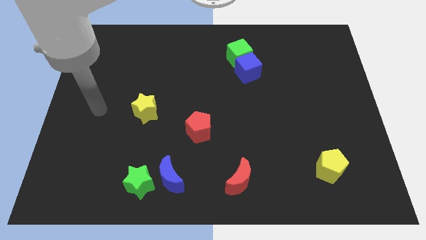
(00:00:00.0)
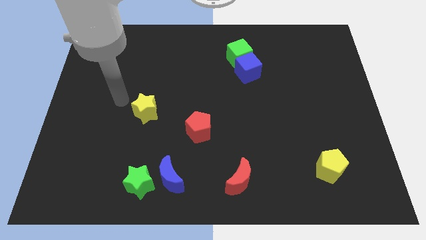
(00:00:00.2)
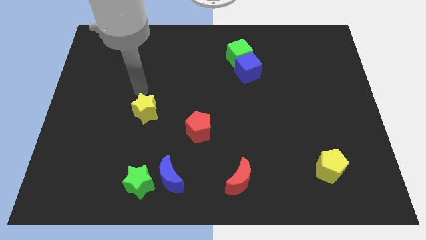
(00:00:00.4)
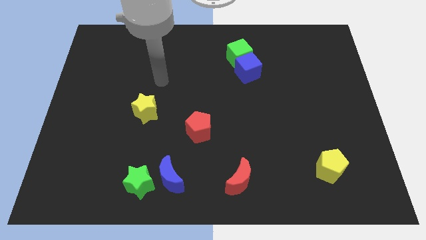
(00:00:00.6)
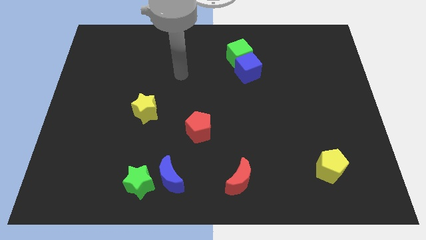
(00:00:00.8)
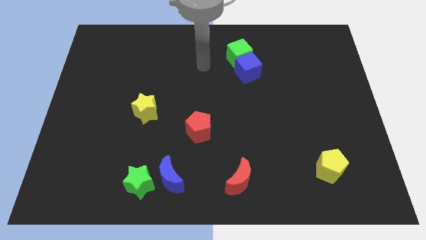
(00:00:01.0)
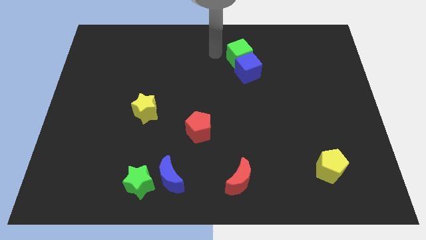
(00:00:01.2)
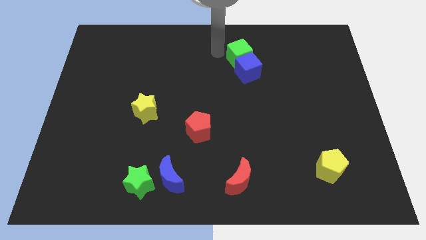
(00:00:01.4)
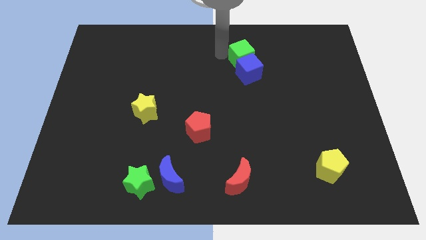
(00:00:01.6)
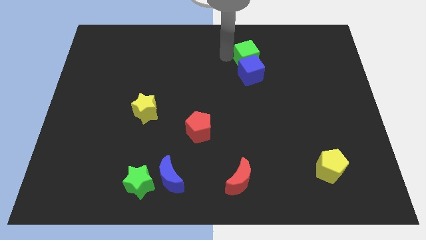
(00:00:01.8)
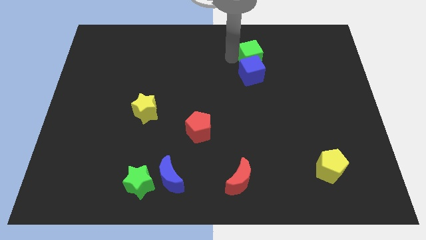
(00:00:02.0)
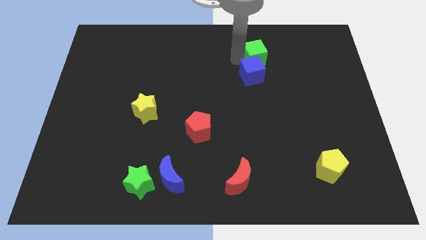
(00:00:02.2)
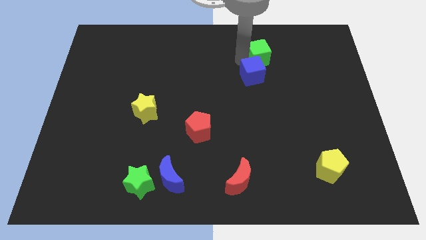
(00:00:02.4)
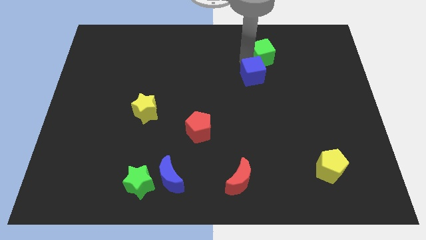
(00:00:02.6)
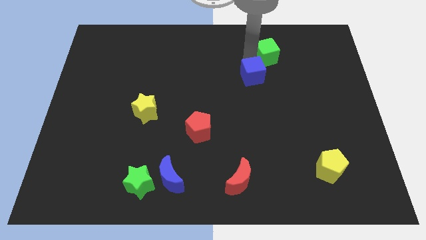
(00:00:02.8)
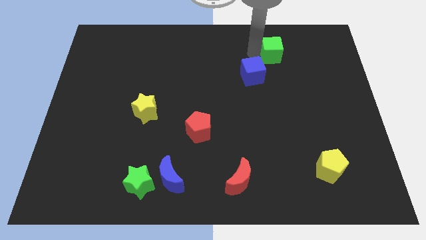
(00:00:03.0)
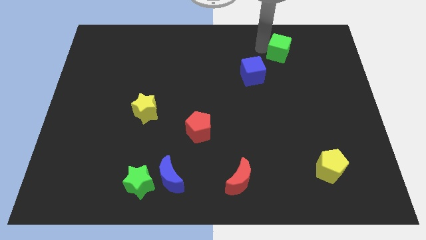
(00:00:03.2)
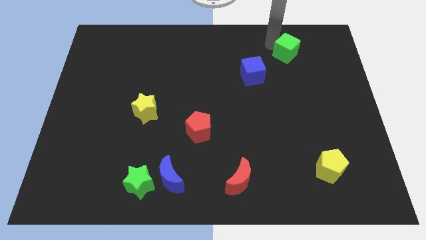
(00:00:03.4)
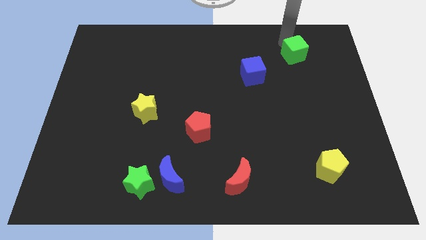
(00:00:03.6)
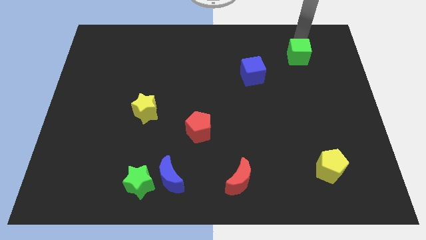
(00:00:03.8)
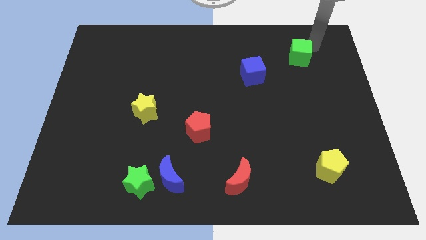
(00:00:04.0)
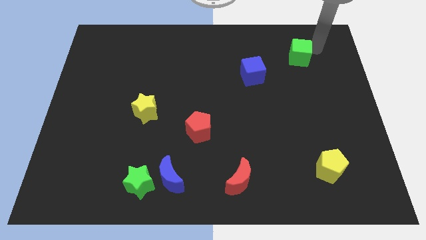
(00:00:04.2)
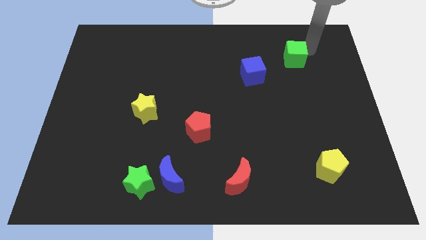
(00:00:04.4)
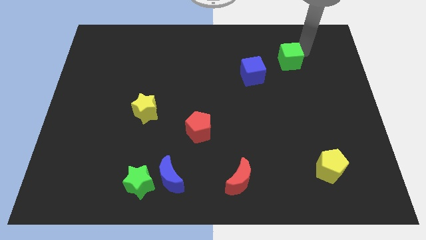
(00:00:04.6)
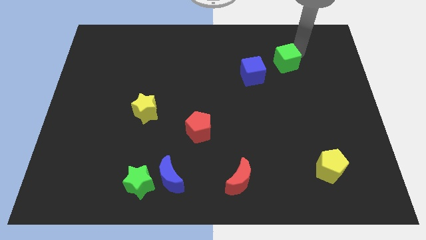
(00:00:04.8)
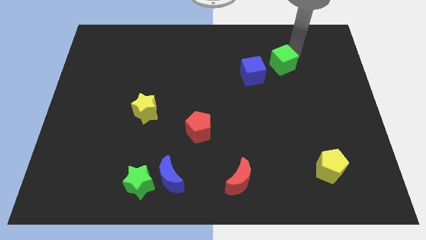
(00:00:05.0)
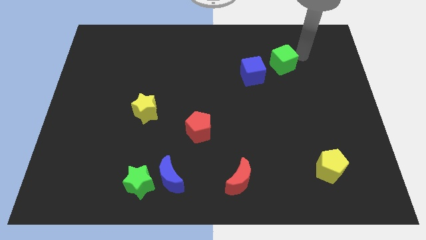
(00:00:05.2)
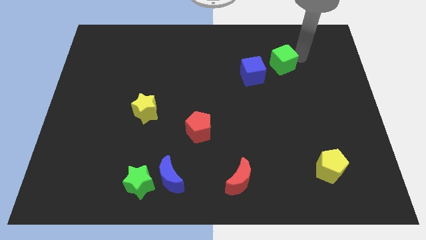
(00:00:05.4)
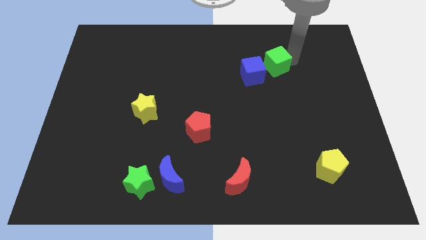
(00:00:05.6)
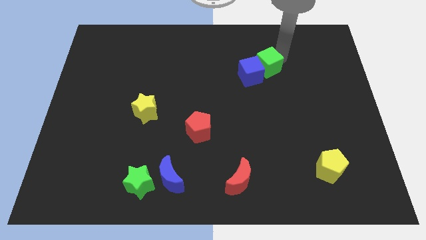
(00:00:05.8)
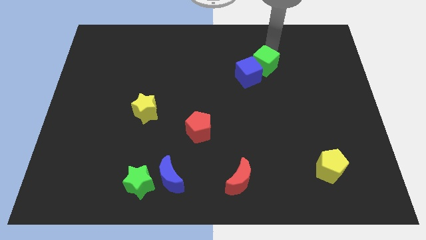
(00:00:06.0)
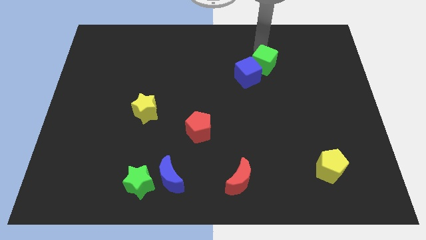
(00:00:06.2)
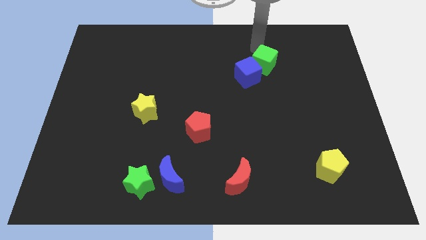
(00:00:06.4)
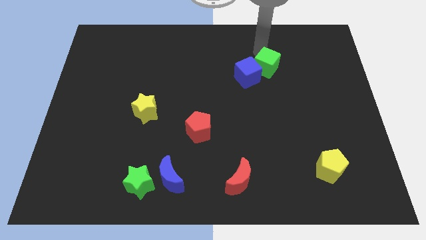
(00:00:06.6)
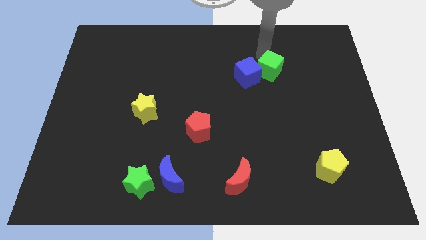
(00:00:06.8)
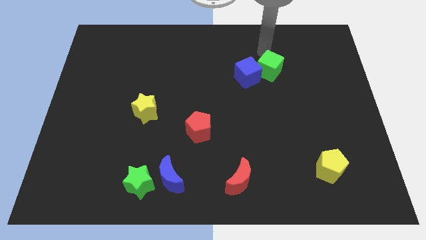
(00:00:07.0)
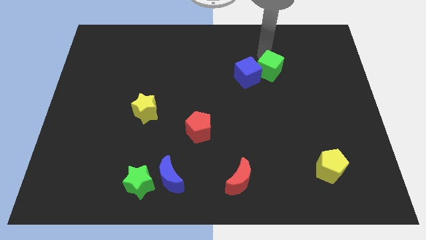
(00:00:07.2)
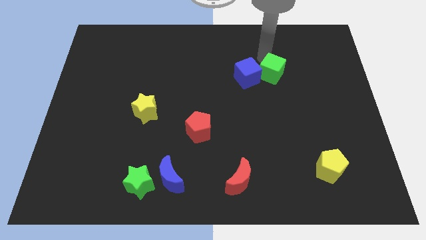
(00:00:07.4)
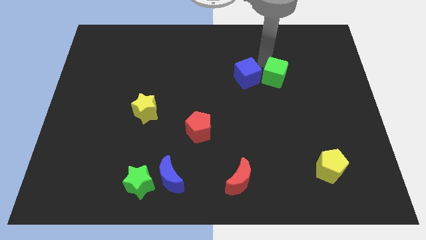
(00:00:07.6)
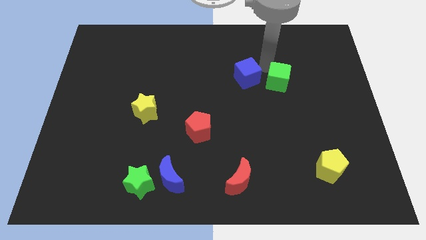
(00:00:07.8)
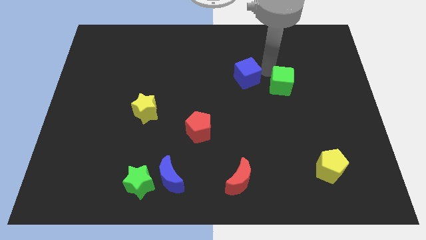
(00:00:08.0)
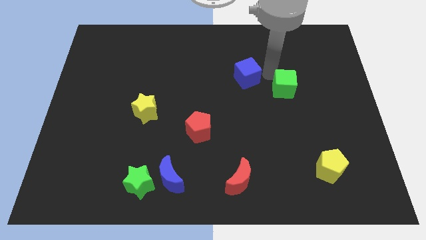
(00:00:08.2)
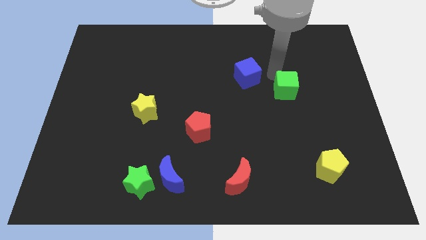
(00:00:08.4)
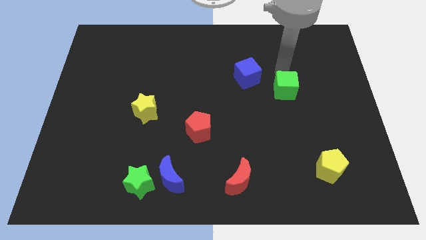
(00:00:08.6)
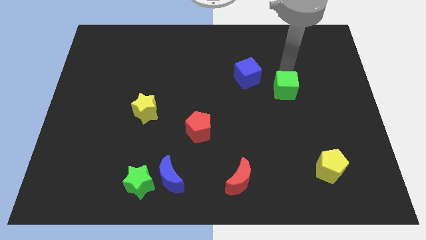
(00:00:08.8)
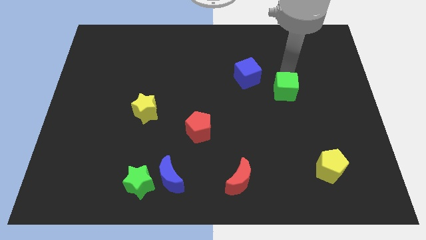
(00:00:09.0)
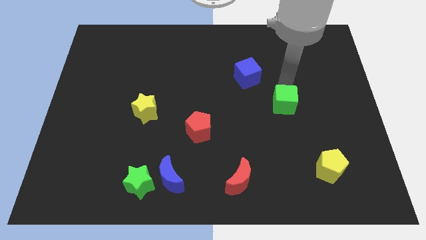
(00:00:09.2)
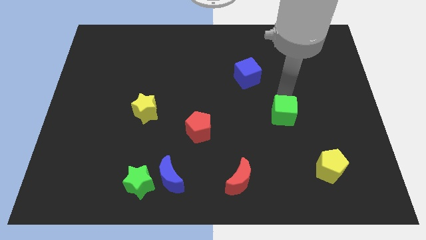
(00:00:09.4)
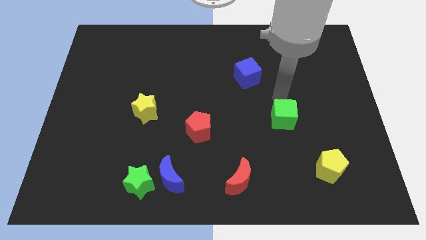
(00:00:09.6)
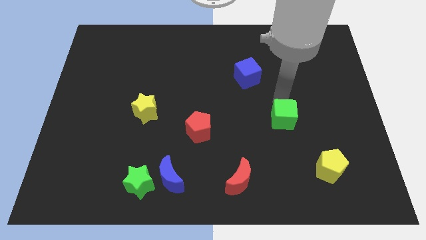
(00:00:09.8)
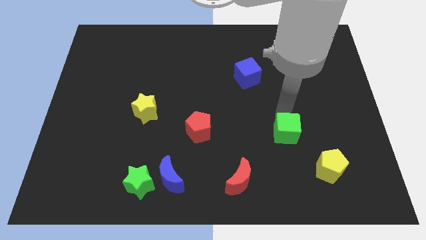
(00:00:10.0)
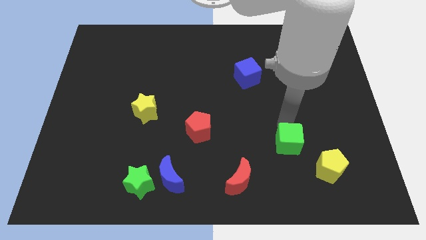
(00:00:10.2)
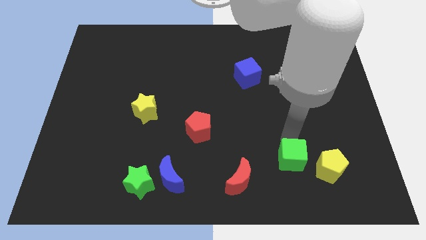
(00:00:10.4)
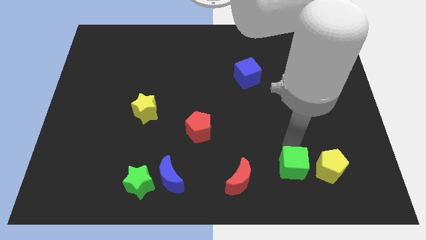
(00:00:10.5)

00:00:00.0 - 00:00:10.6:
move the green cube to the right of the red moon

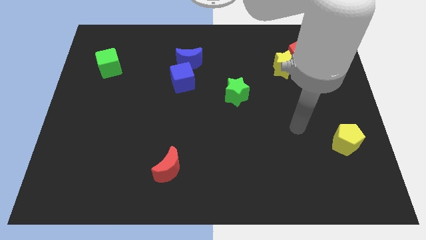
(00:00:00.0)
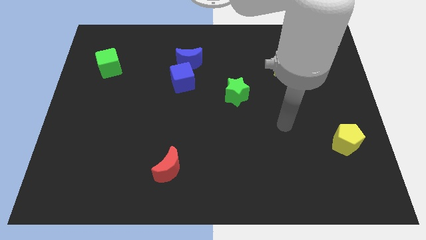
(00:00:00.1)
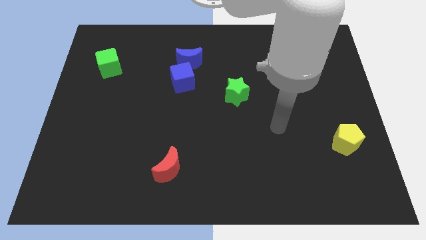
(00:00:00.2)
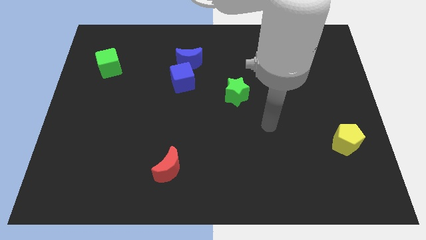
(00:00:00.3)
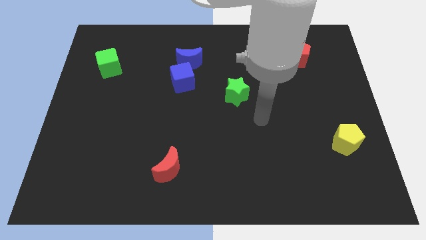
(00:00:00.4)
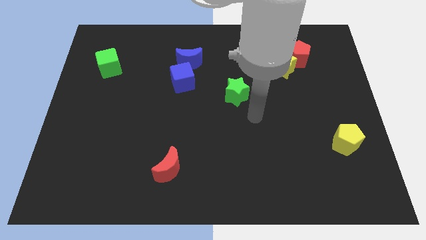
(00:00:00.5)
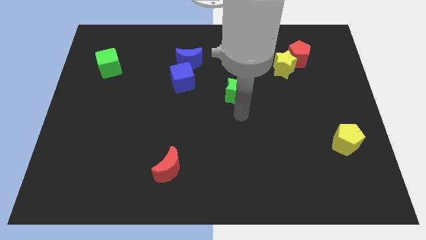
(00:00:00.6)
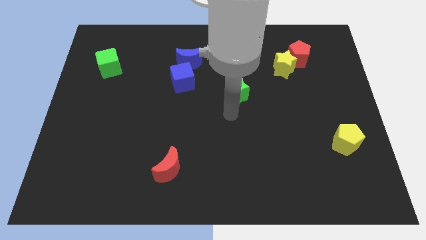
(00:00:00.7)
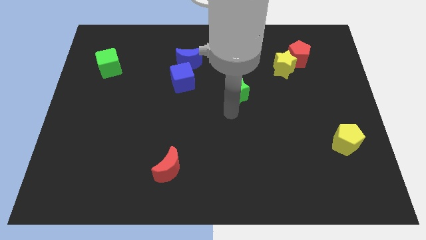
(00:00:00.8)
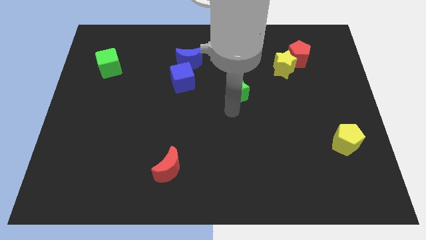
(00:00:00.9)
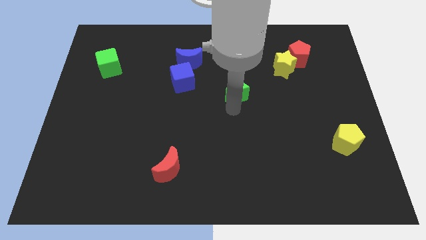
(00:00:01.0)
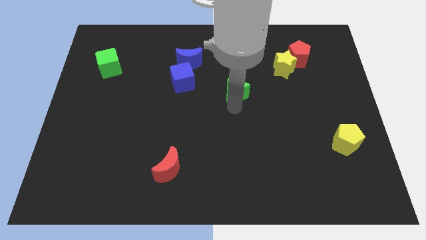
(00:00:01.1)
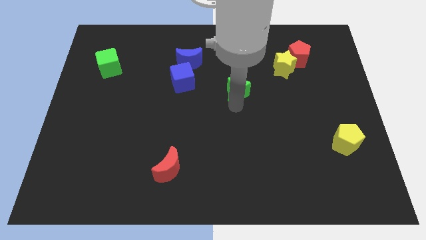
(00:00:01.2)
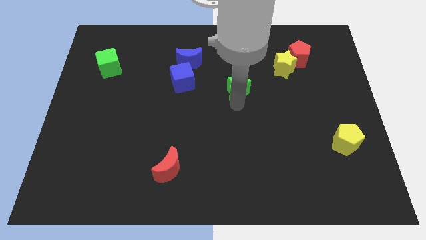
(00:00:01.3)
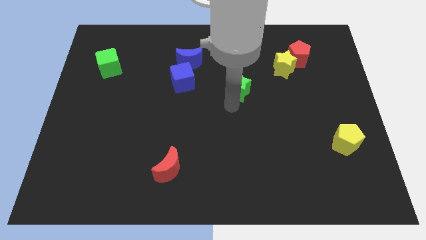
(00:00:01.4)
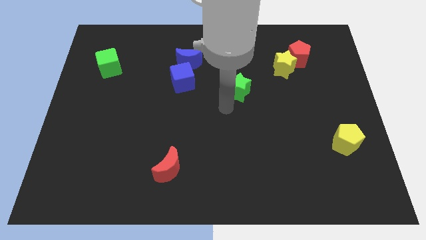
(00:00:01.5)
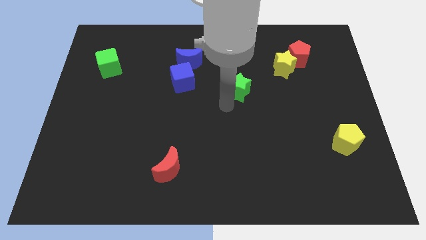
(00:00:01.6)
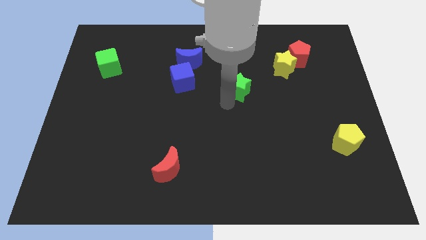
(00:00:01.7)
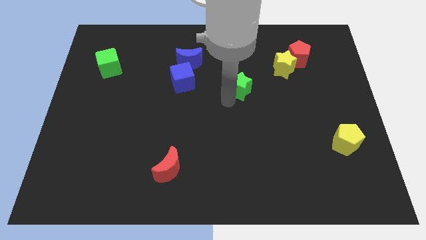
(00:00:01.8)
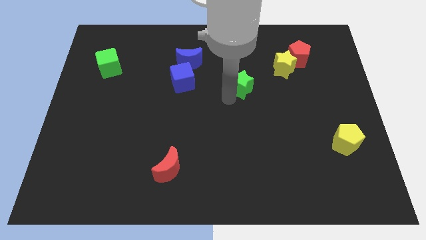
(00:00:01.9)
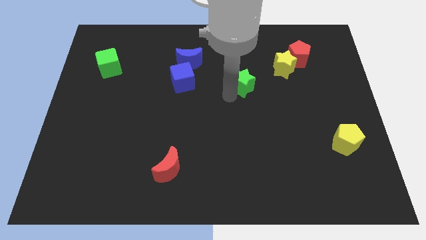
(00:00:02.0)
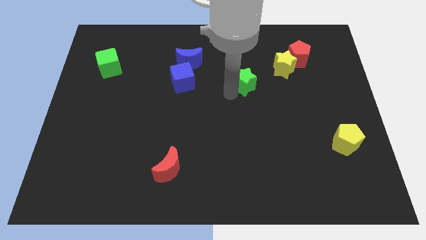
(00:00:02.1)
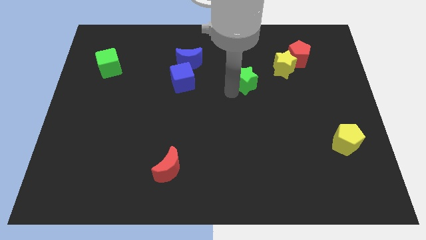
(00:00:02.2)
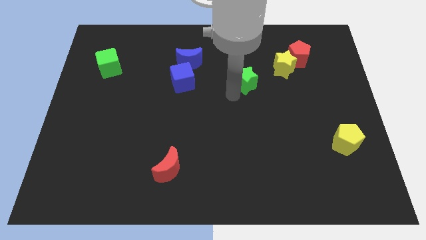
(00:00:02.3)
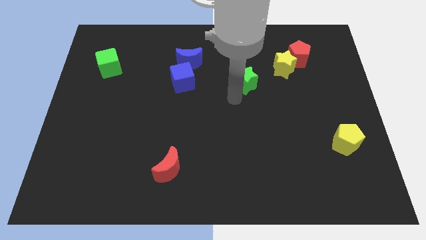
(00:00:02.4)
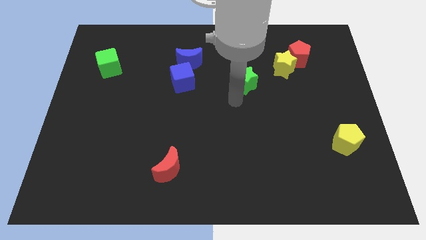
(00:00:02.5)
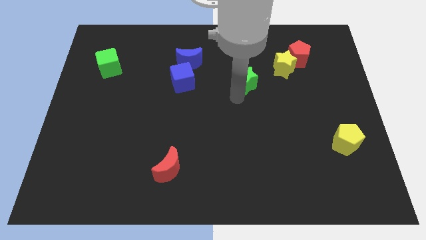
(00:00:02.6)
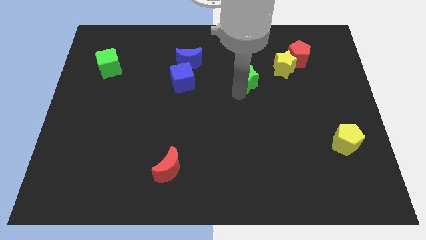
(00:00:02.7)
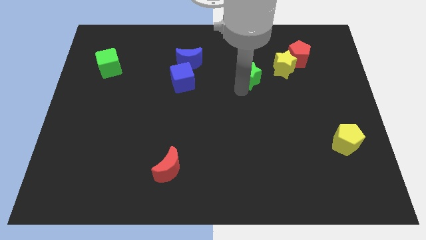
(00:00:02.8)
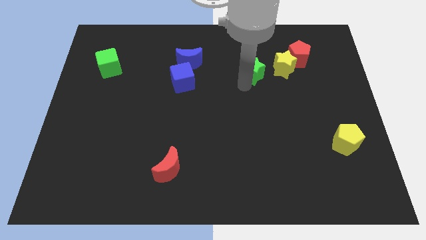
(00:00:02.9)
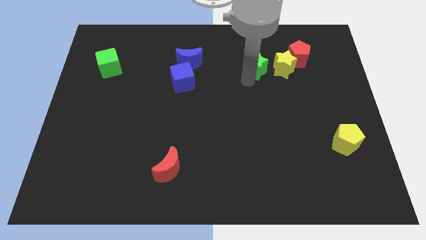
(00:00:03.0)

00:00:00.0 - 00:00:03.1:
push the green star to the left side of the red pentagon
